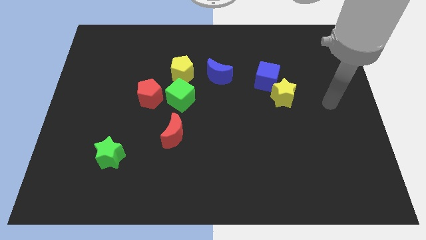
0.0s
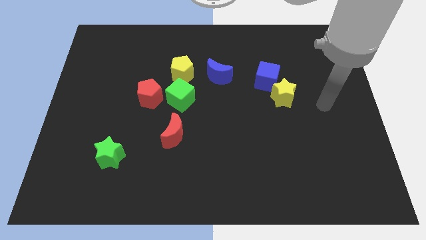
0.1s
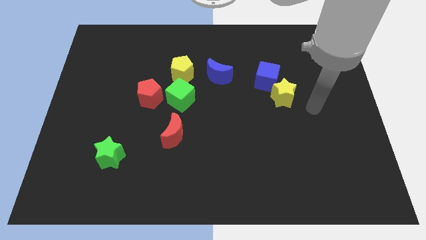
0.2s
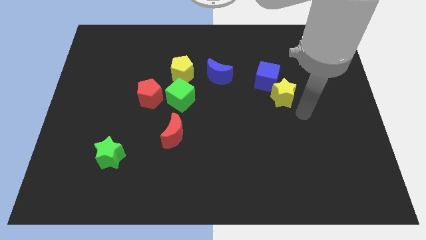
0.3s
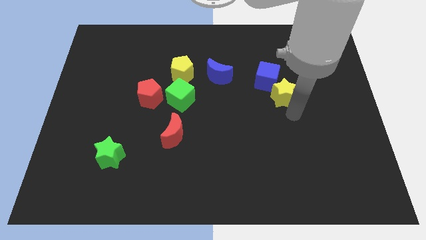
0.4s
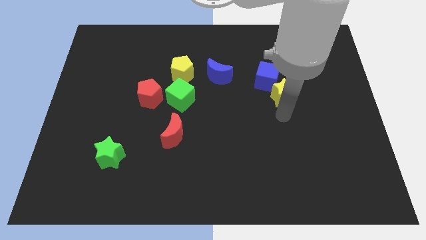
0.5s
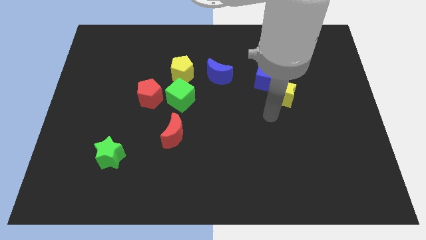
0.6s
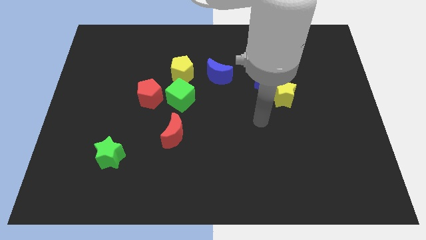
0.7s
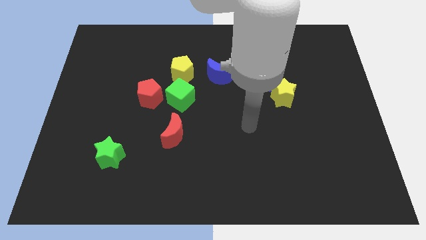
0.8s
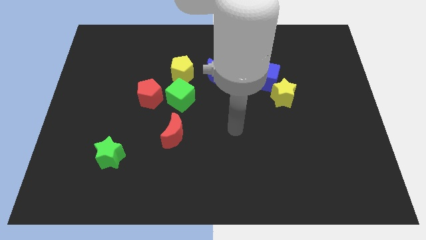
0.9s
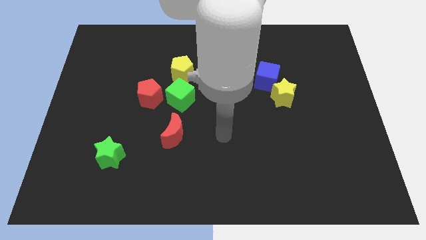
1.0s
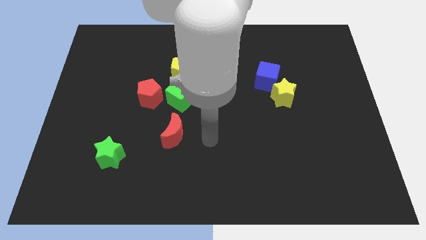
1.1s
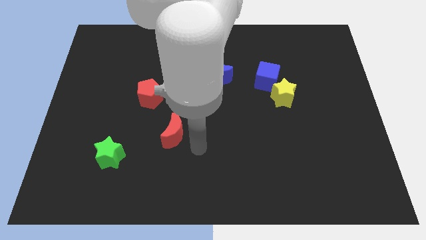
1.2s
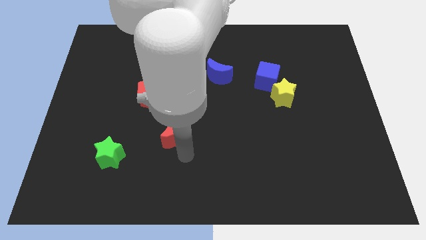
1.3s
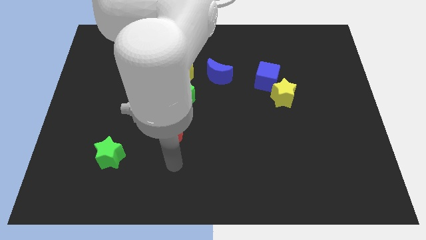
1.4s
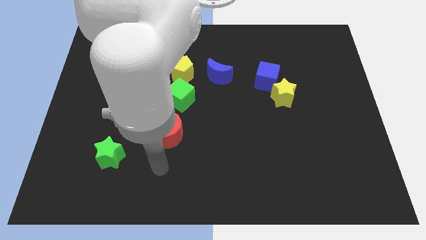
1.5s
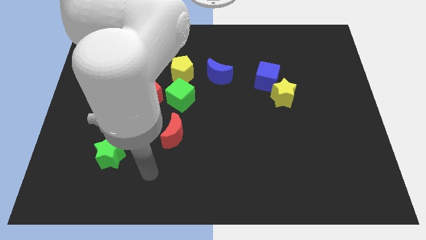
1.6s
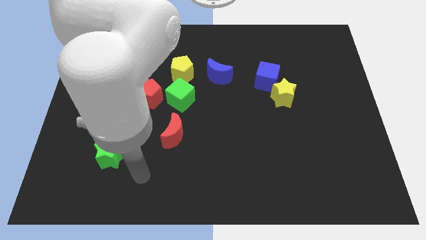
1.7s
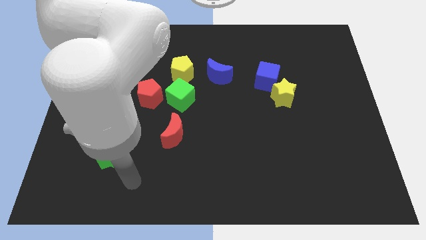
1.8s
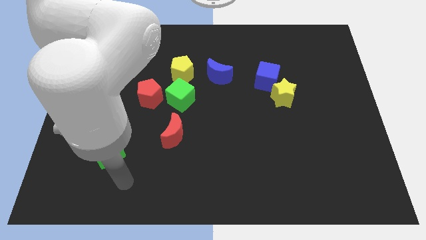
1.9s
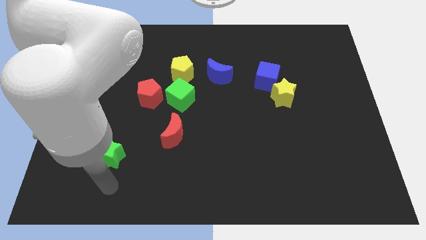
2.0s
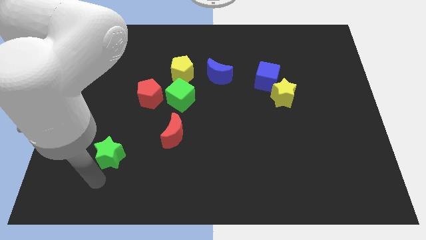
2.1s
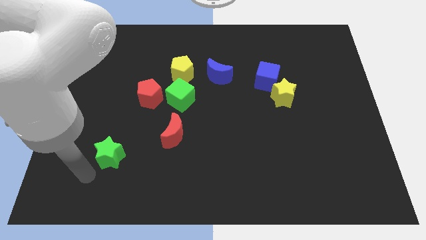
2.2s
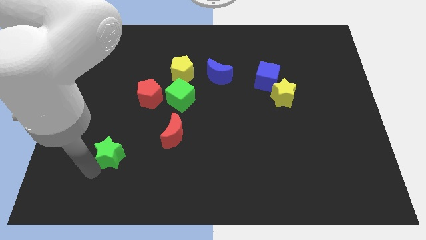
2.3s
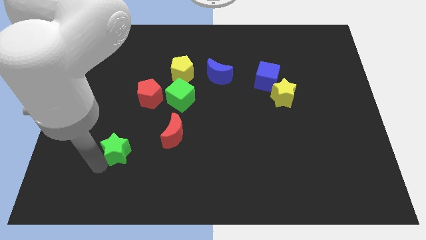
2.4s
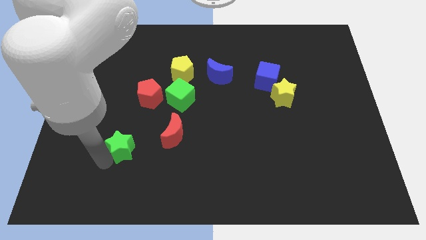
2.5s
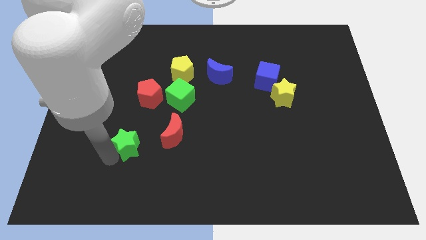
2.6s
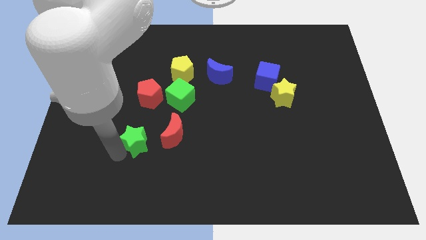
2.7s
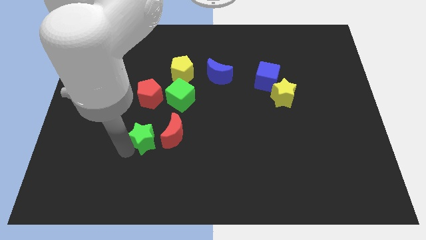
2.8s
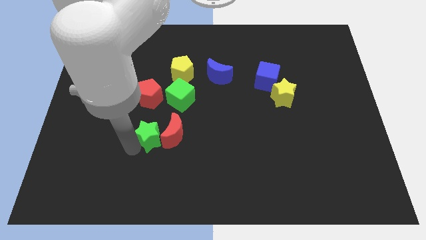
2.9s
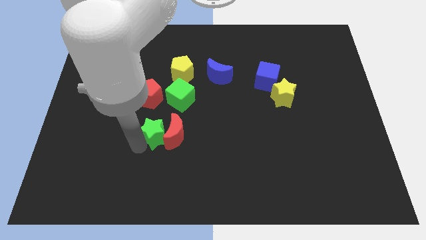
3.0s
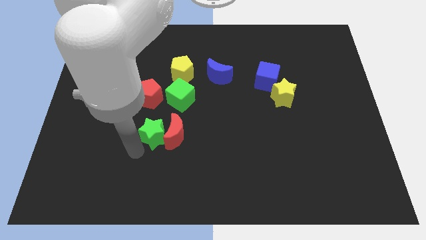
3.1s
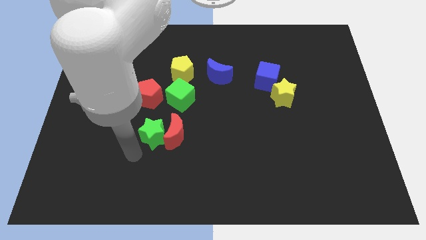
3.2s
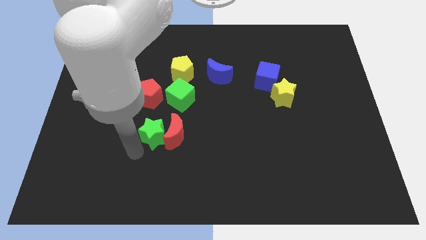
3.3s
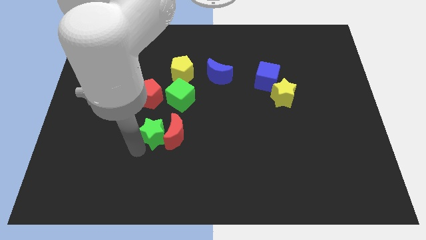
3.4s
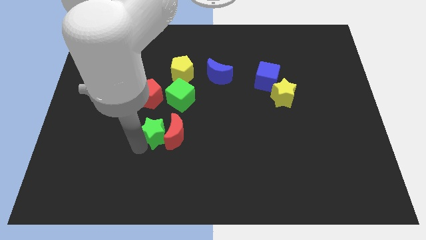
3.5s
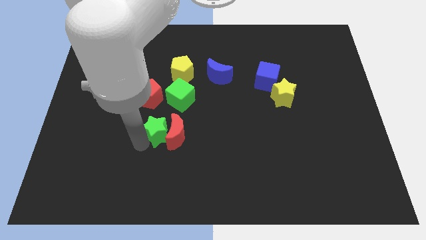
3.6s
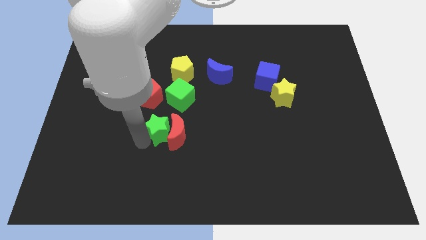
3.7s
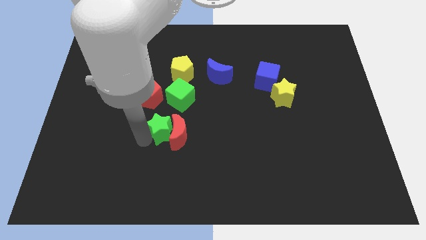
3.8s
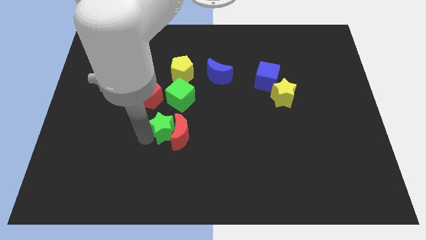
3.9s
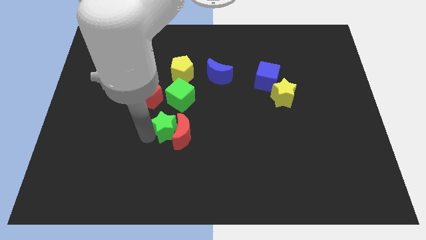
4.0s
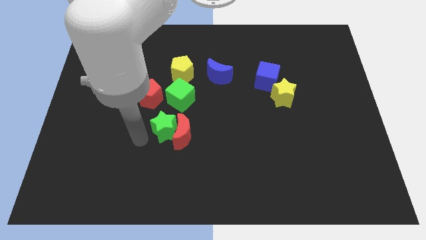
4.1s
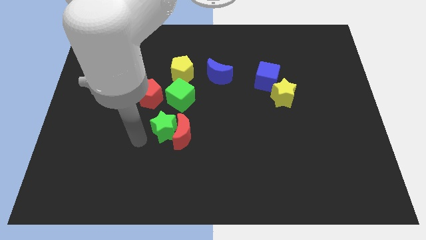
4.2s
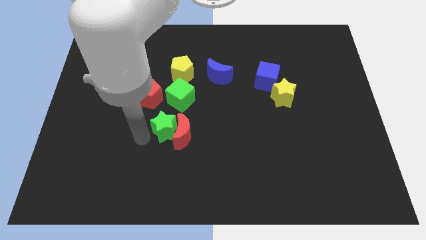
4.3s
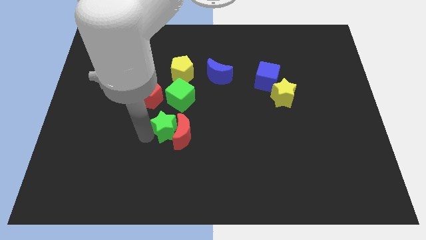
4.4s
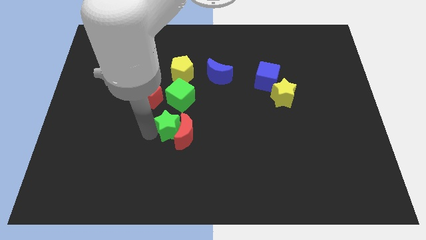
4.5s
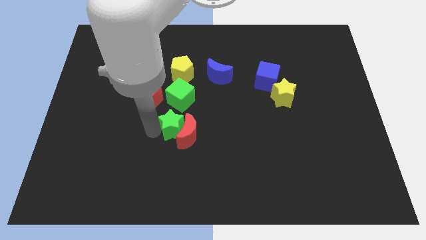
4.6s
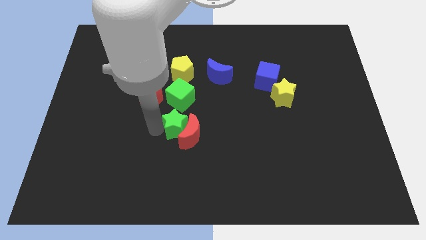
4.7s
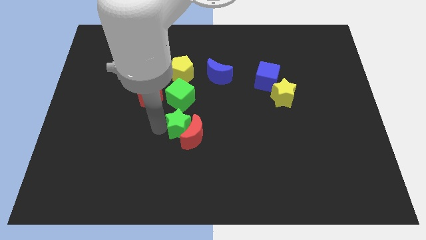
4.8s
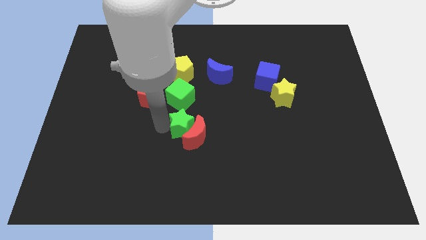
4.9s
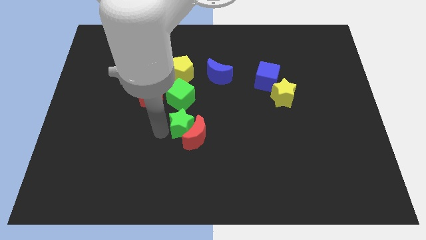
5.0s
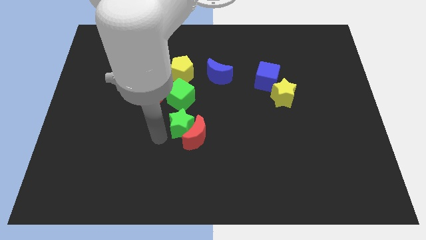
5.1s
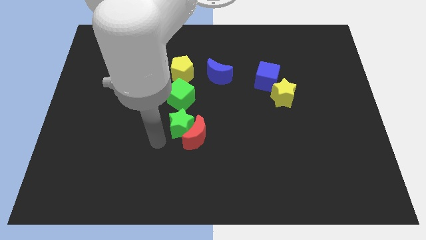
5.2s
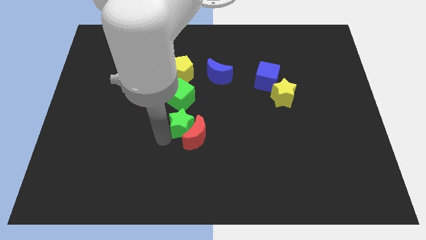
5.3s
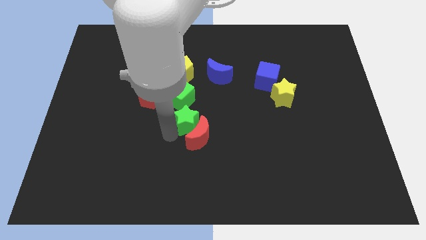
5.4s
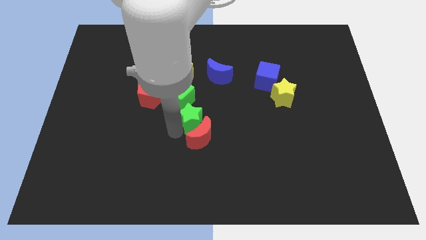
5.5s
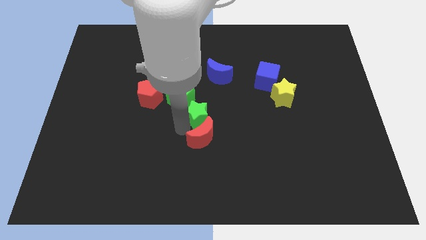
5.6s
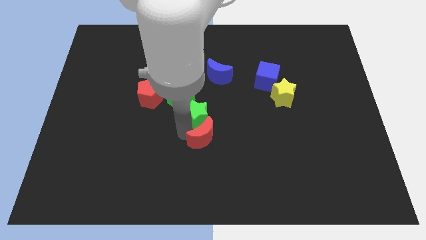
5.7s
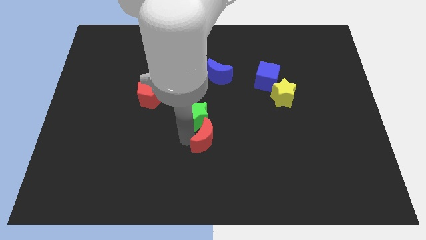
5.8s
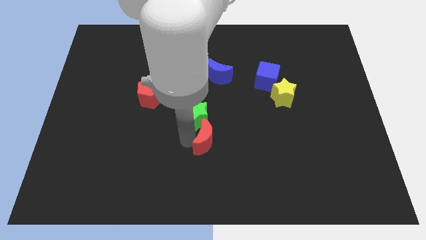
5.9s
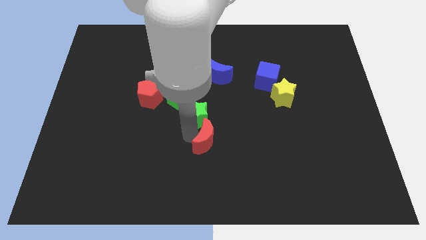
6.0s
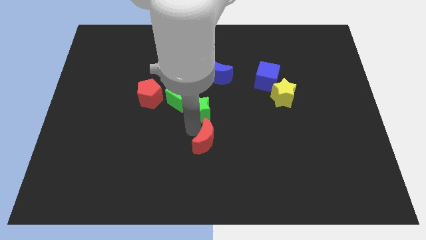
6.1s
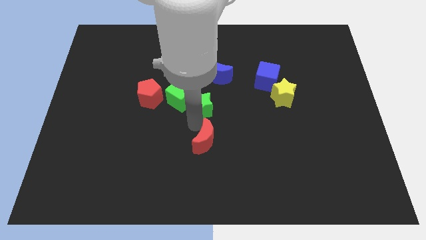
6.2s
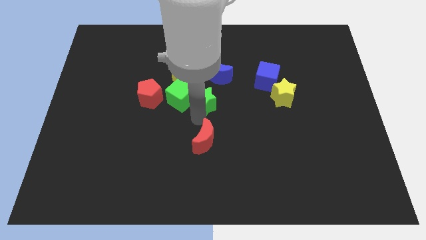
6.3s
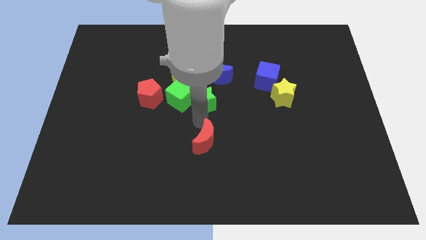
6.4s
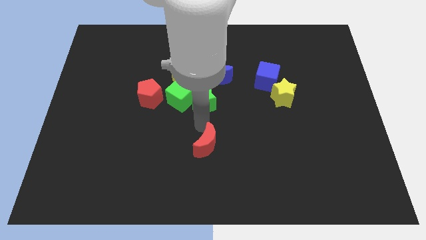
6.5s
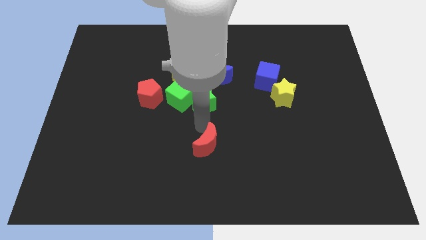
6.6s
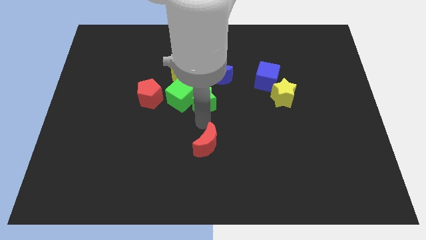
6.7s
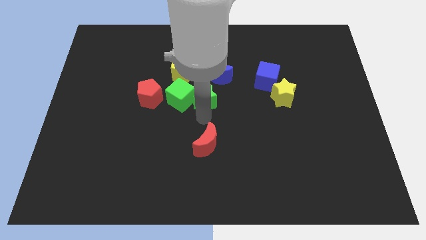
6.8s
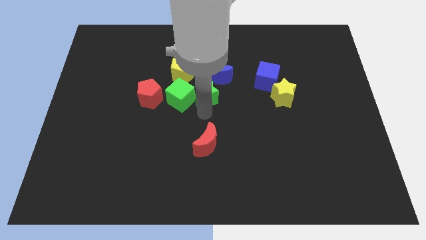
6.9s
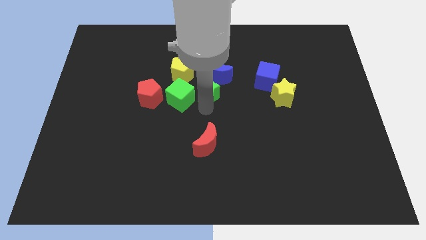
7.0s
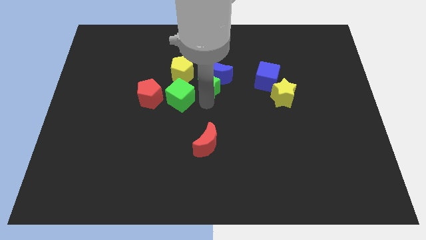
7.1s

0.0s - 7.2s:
put the green star towards the blue moon
